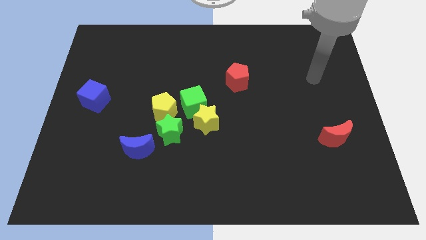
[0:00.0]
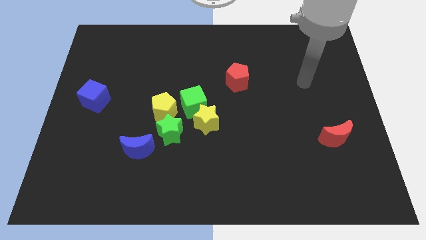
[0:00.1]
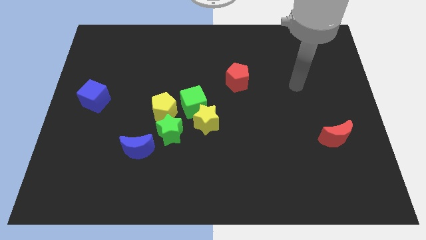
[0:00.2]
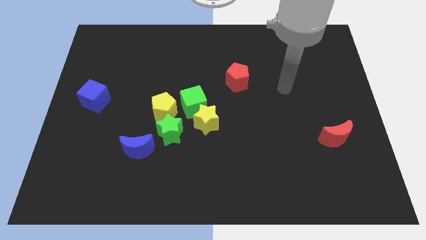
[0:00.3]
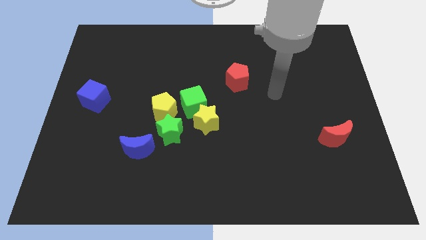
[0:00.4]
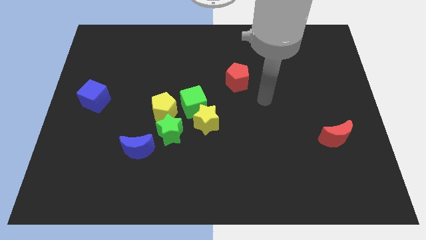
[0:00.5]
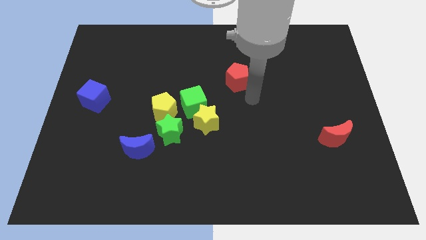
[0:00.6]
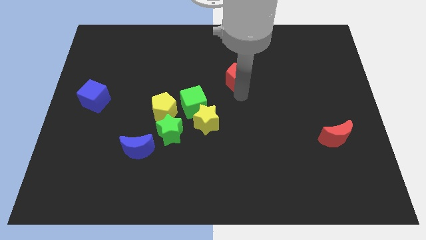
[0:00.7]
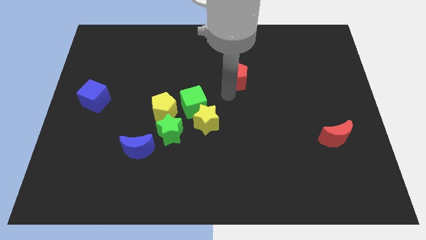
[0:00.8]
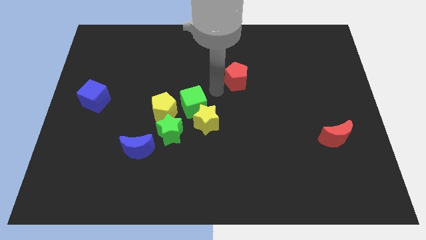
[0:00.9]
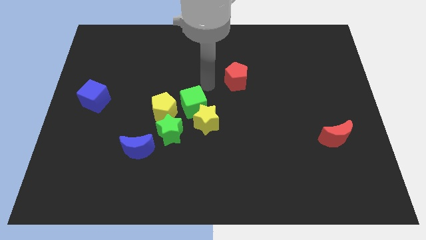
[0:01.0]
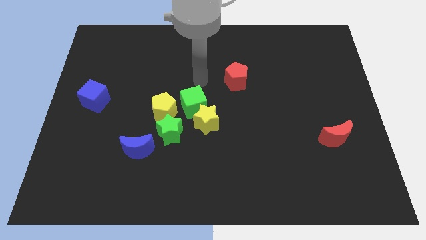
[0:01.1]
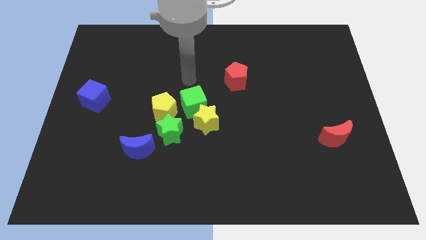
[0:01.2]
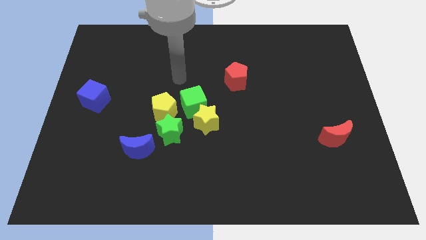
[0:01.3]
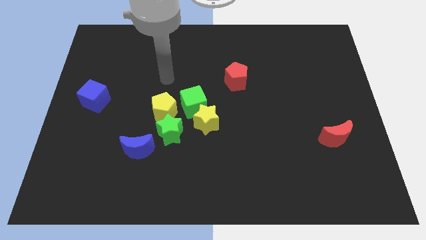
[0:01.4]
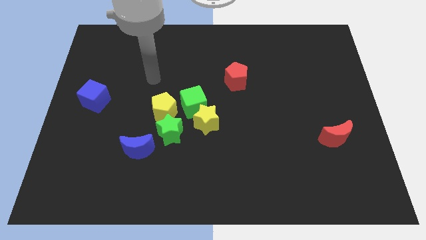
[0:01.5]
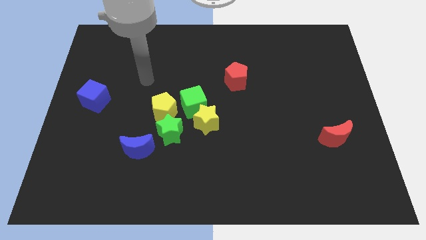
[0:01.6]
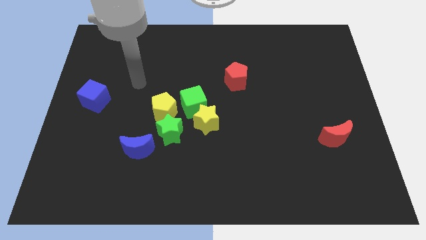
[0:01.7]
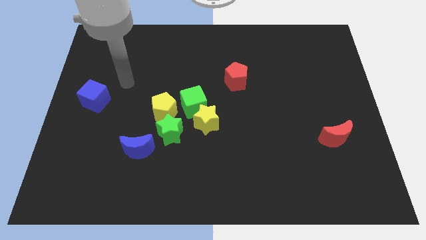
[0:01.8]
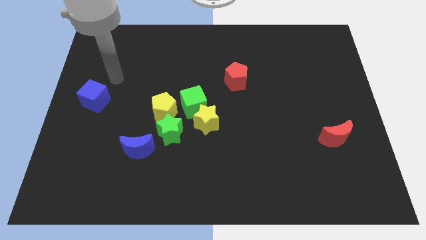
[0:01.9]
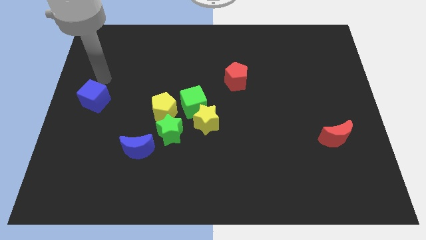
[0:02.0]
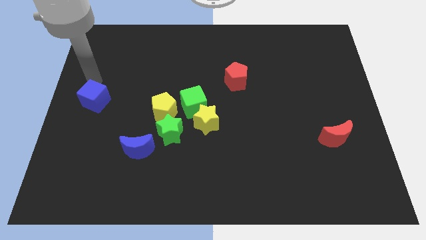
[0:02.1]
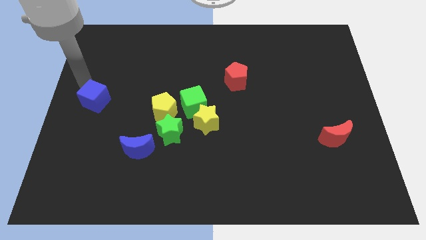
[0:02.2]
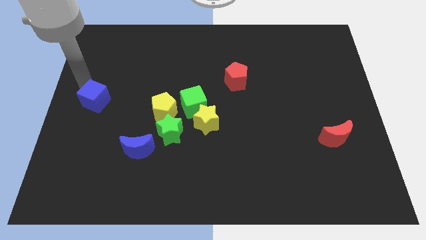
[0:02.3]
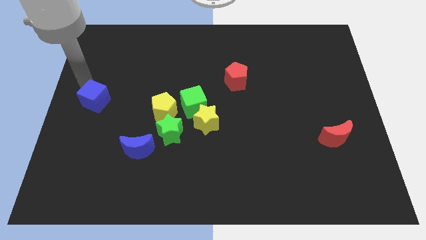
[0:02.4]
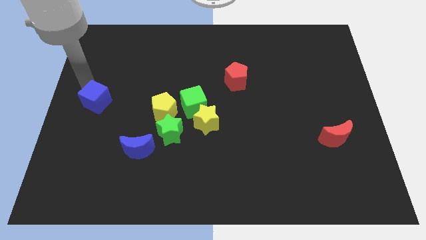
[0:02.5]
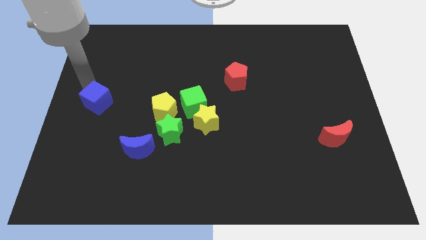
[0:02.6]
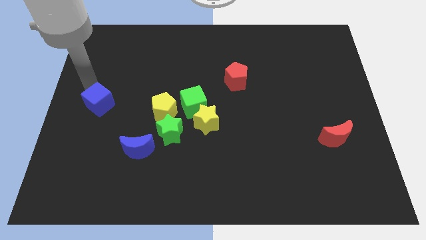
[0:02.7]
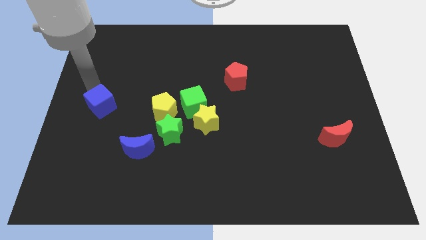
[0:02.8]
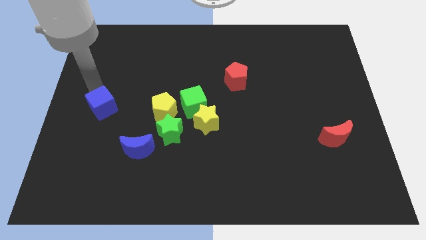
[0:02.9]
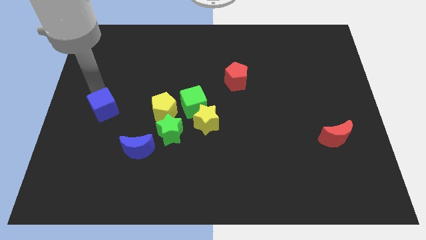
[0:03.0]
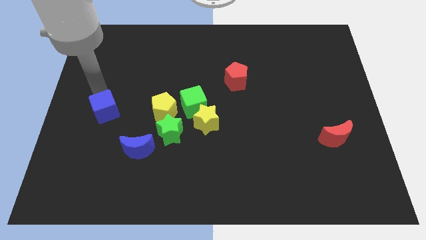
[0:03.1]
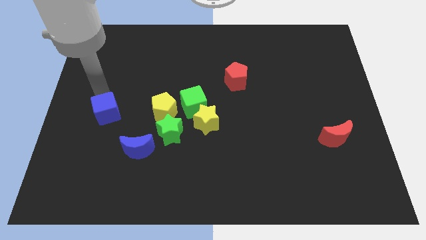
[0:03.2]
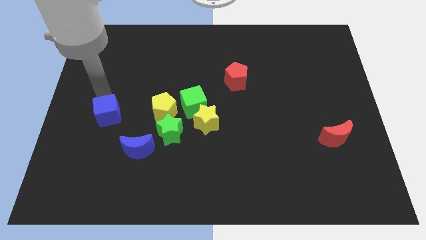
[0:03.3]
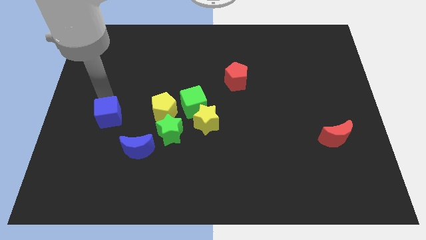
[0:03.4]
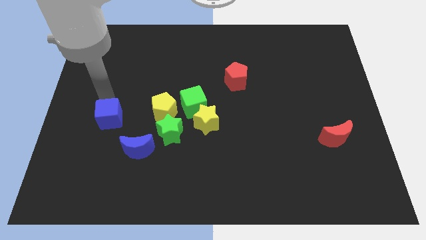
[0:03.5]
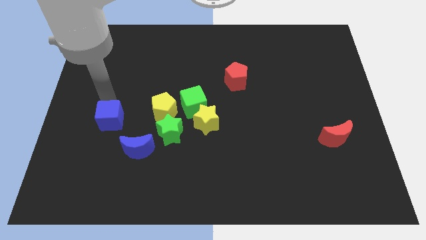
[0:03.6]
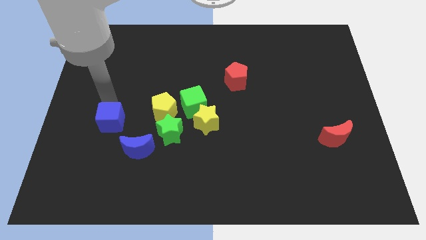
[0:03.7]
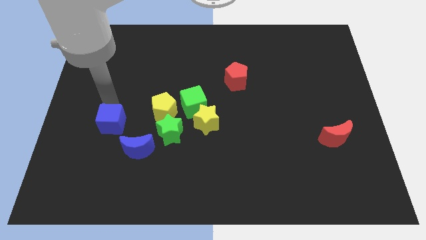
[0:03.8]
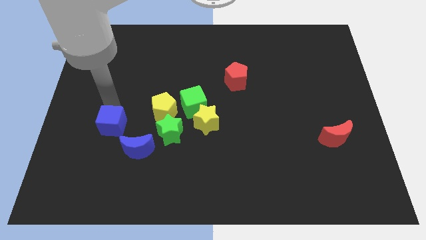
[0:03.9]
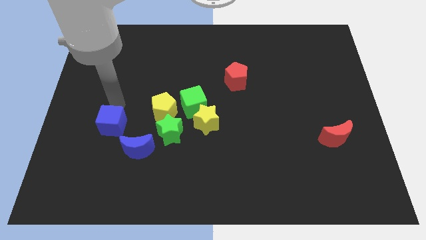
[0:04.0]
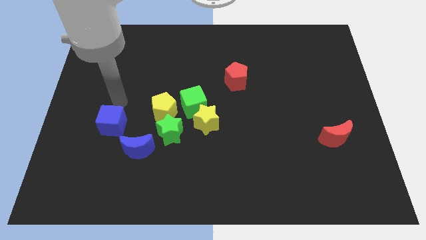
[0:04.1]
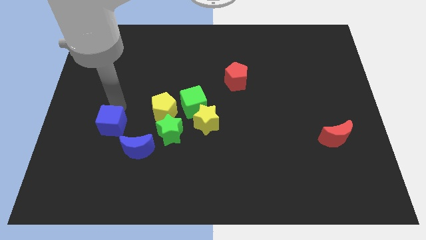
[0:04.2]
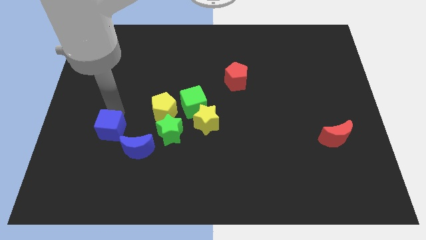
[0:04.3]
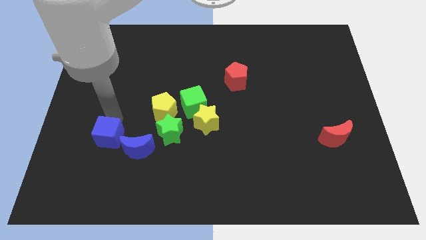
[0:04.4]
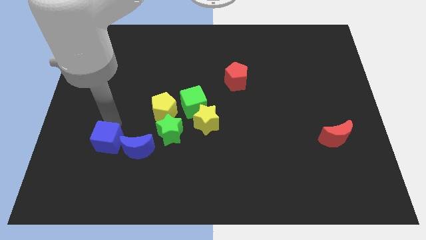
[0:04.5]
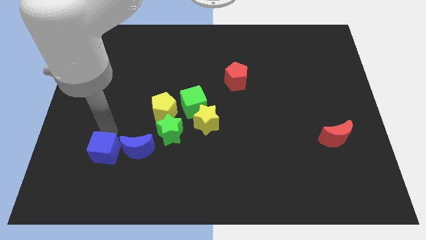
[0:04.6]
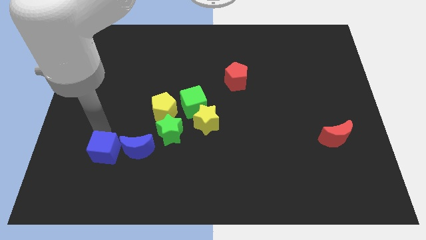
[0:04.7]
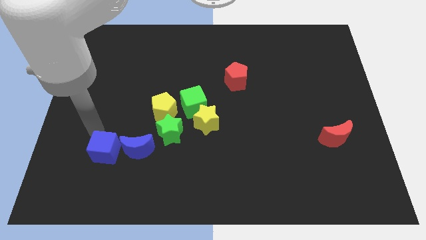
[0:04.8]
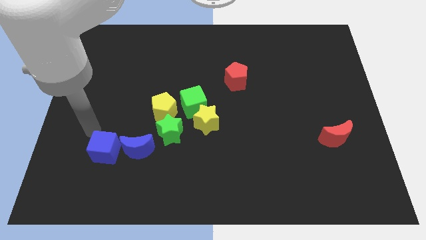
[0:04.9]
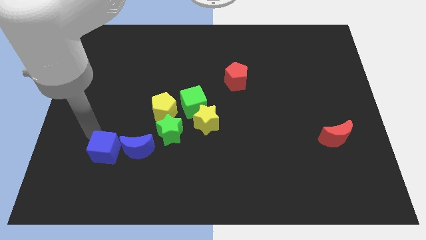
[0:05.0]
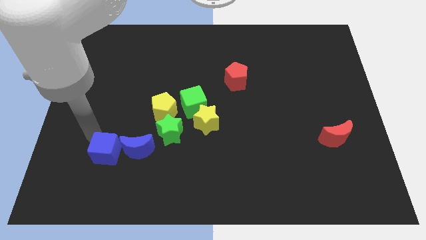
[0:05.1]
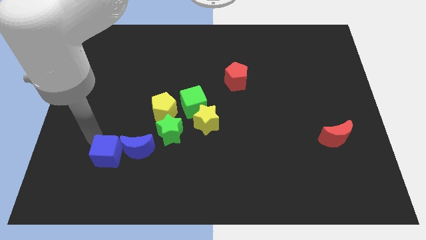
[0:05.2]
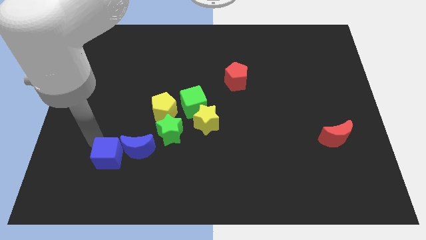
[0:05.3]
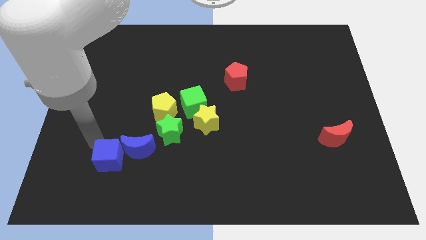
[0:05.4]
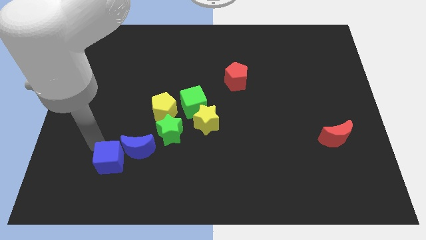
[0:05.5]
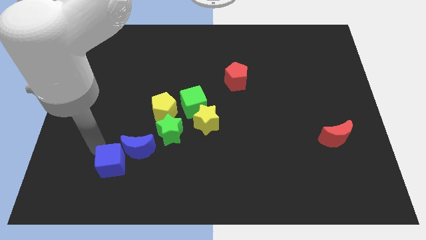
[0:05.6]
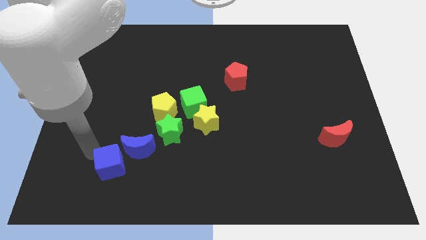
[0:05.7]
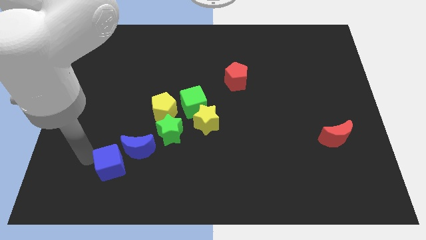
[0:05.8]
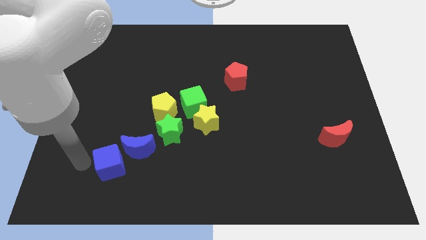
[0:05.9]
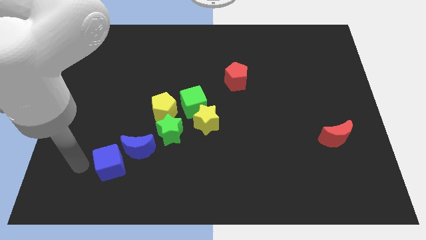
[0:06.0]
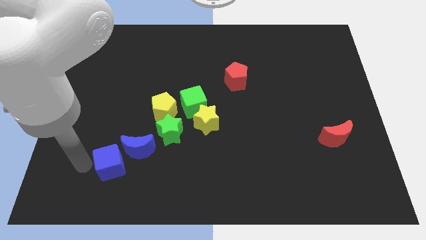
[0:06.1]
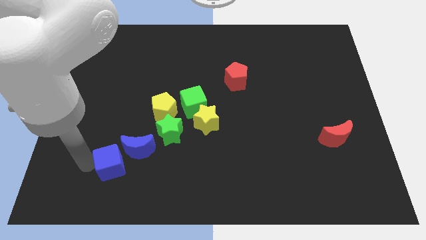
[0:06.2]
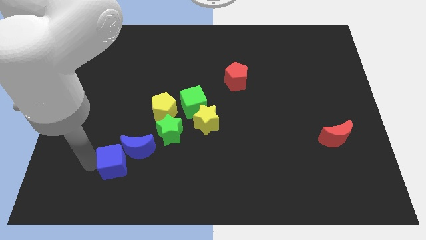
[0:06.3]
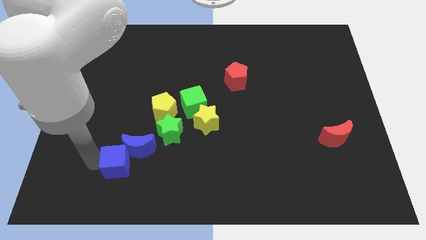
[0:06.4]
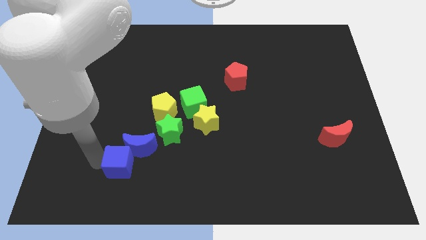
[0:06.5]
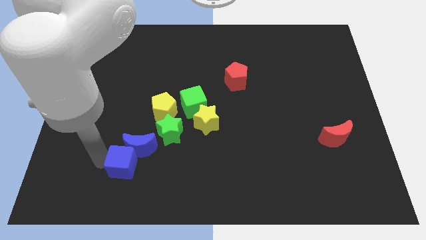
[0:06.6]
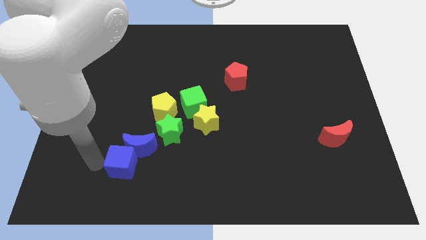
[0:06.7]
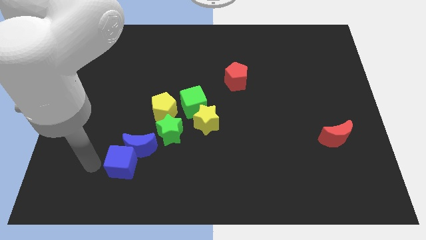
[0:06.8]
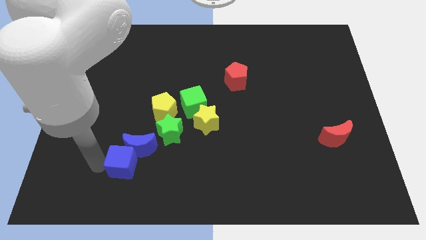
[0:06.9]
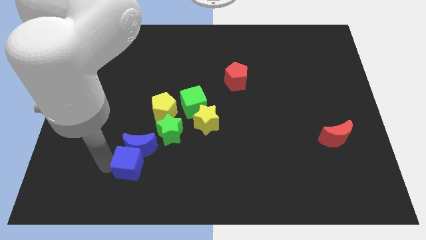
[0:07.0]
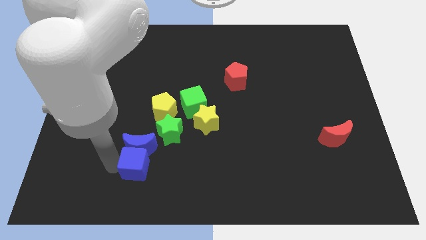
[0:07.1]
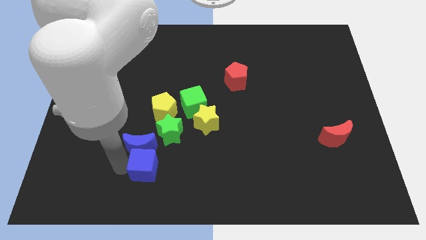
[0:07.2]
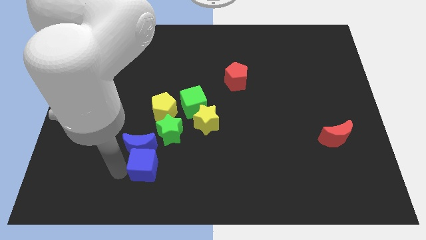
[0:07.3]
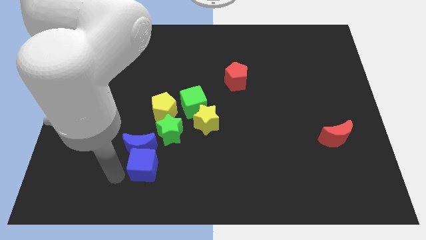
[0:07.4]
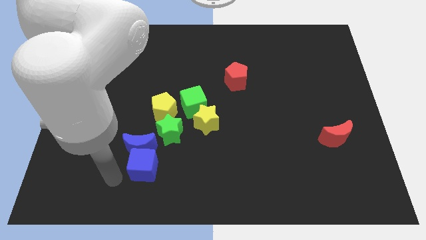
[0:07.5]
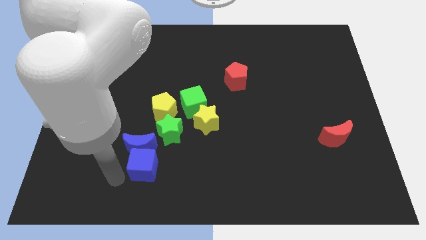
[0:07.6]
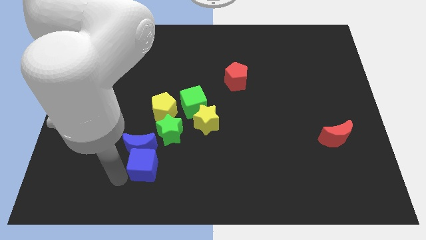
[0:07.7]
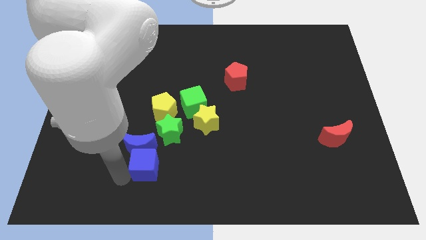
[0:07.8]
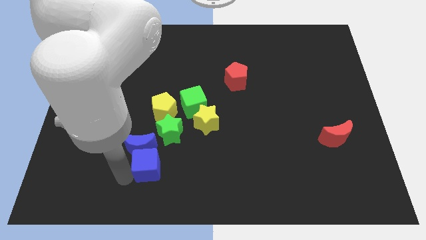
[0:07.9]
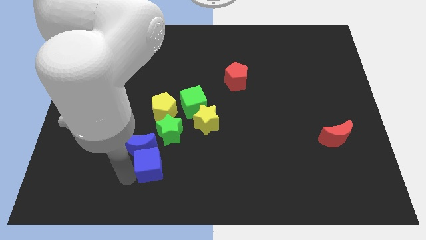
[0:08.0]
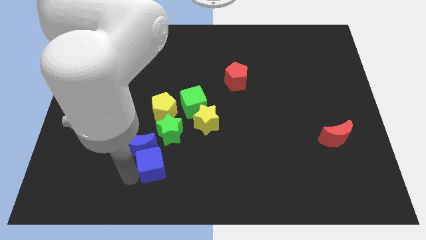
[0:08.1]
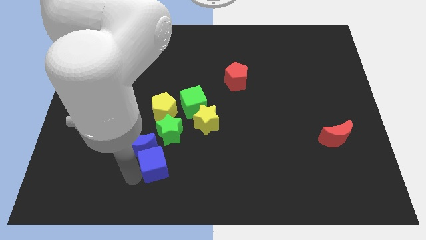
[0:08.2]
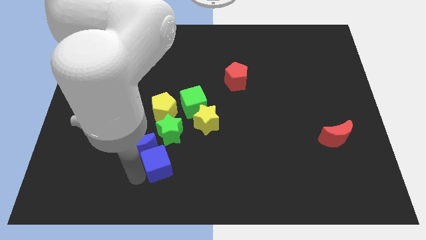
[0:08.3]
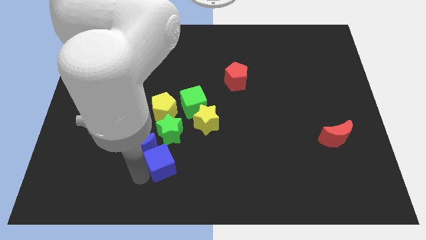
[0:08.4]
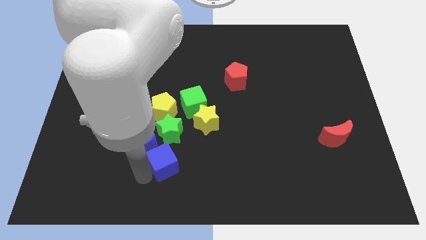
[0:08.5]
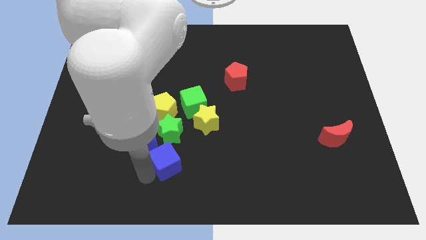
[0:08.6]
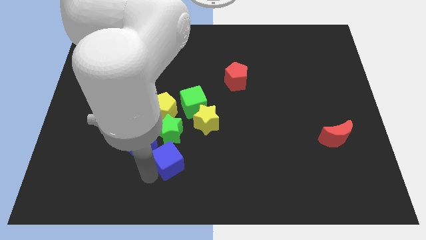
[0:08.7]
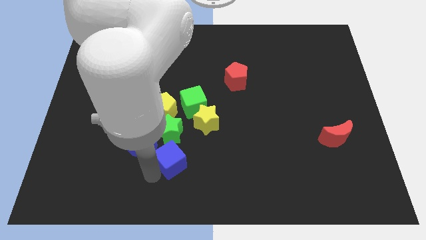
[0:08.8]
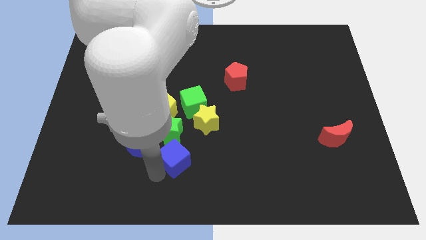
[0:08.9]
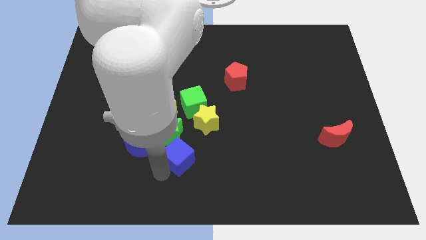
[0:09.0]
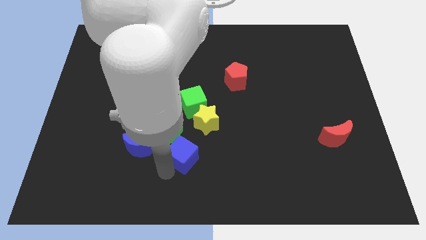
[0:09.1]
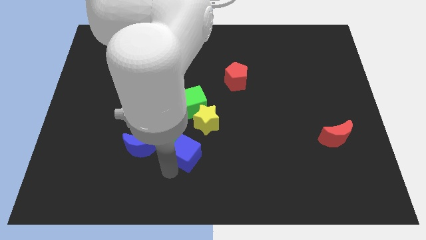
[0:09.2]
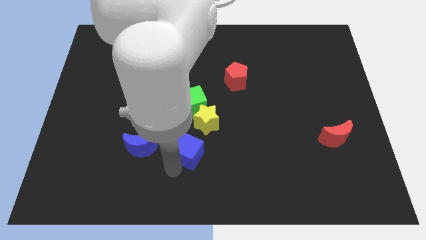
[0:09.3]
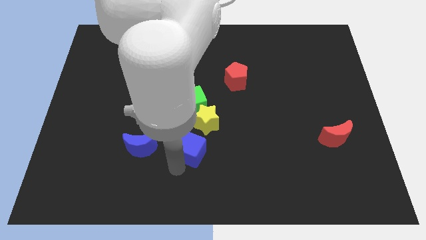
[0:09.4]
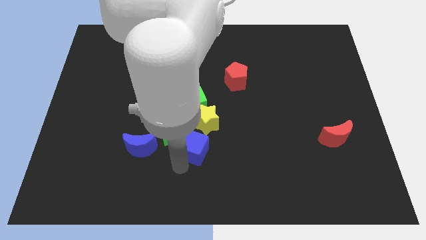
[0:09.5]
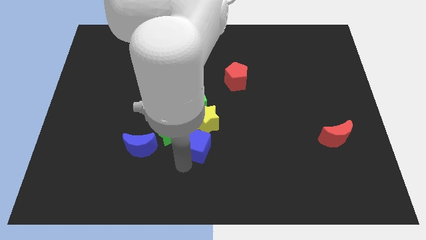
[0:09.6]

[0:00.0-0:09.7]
put the blue cube to the bottom right side of the yellow pentagon
